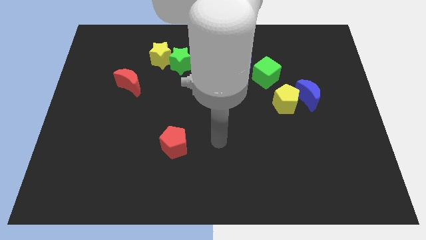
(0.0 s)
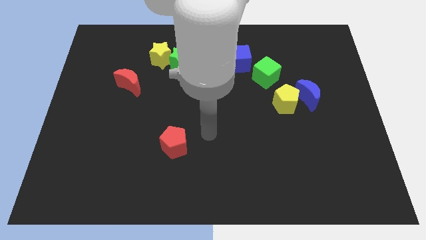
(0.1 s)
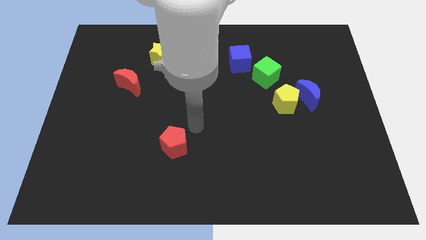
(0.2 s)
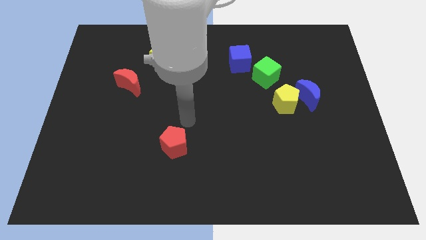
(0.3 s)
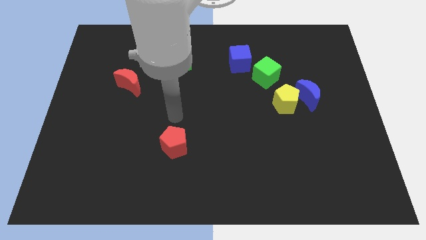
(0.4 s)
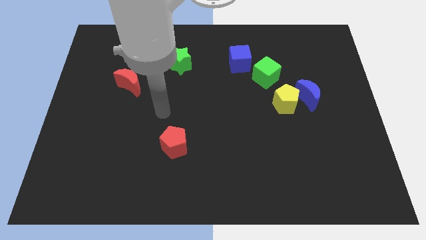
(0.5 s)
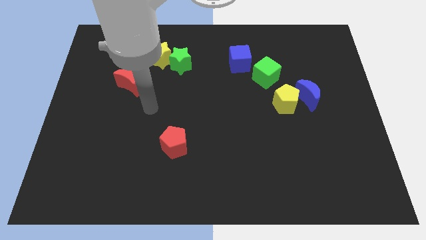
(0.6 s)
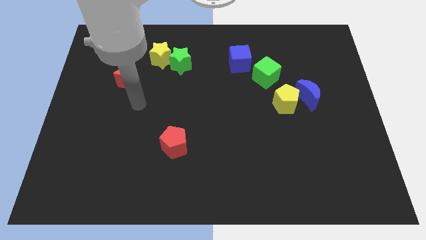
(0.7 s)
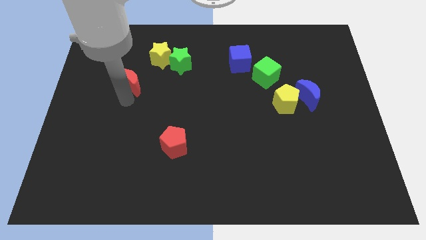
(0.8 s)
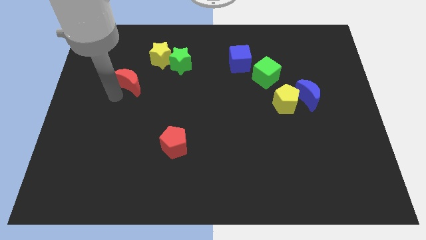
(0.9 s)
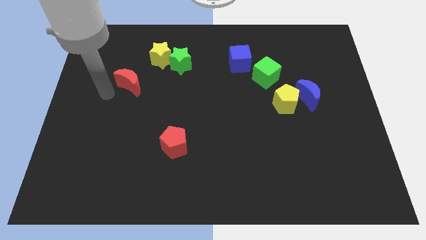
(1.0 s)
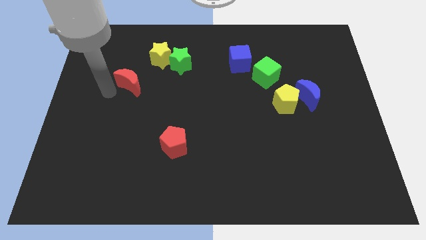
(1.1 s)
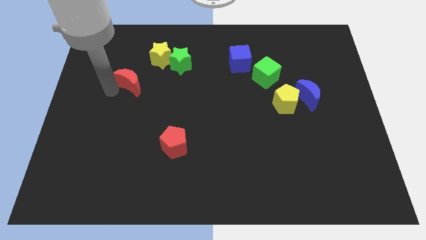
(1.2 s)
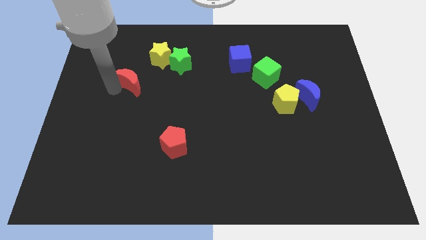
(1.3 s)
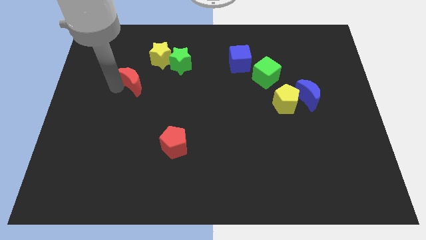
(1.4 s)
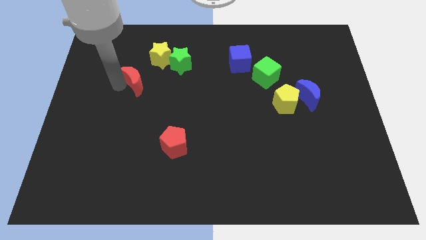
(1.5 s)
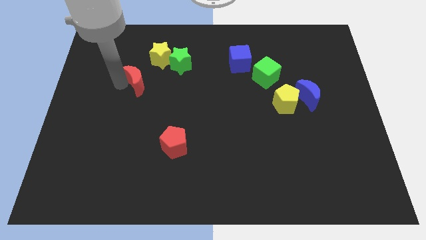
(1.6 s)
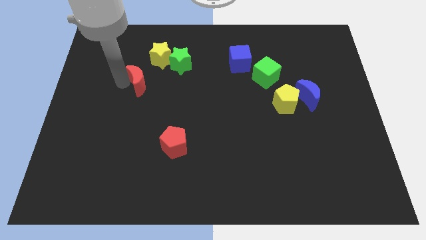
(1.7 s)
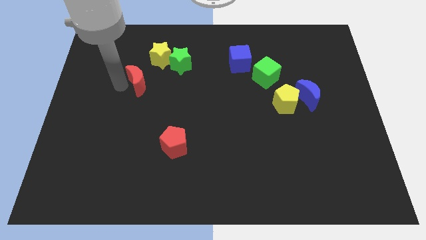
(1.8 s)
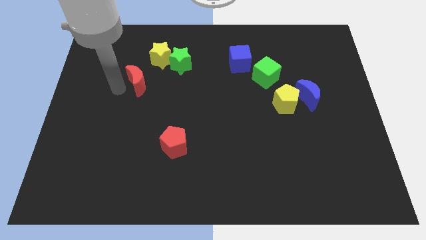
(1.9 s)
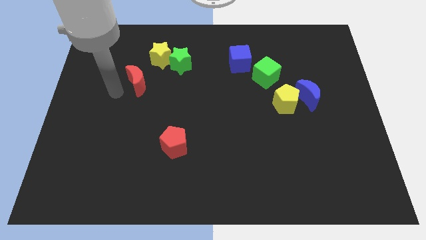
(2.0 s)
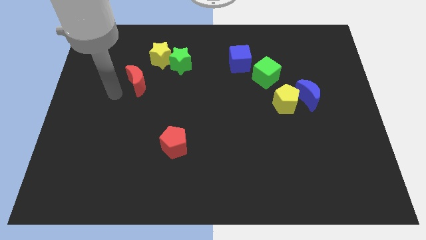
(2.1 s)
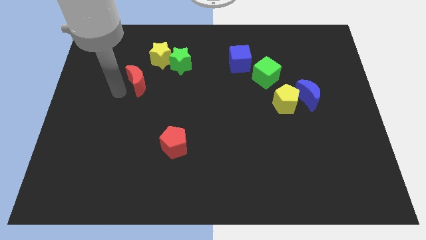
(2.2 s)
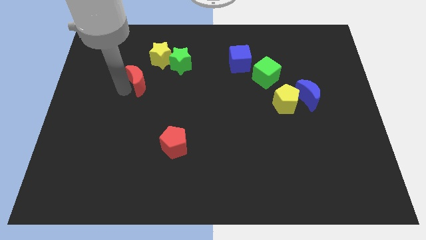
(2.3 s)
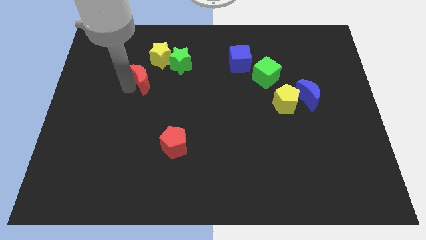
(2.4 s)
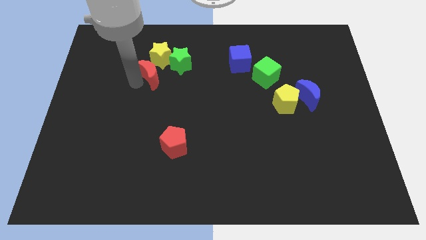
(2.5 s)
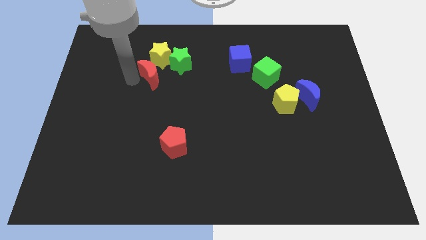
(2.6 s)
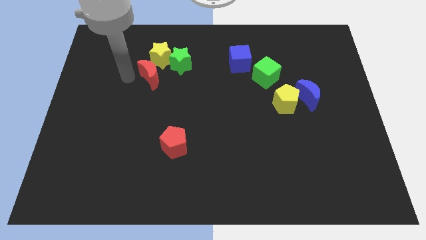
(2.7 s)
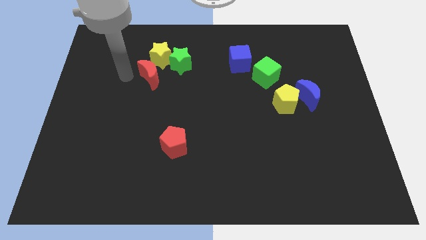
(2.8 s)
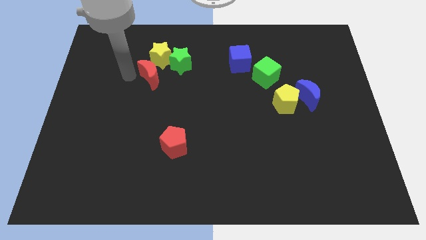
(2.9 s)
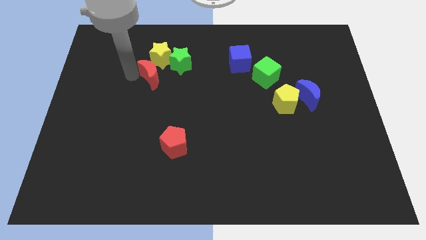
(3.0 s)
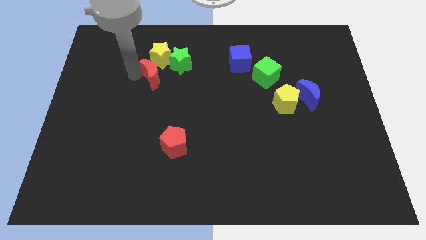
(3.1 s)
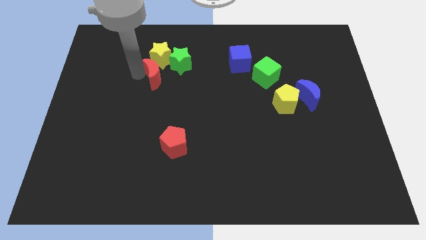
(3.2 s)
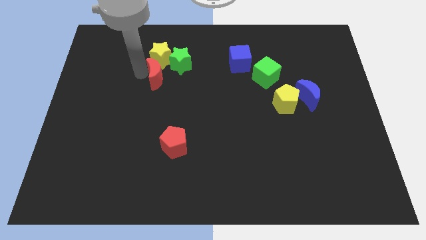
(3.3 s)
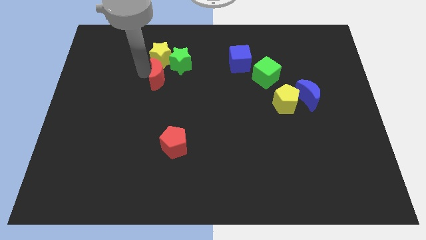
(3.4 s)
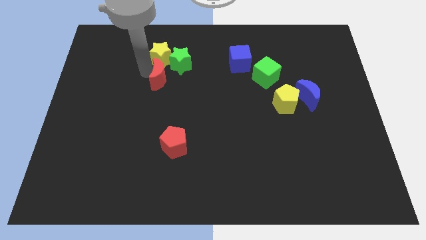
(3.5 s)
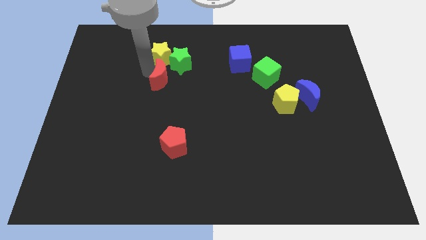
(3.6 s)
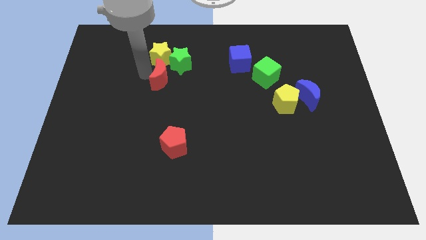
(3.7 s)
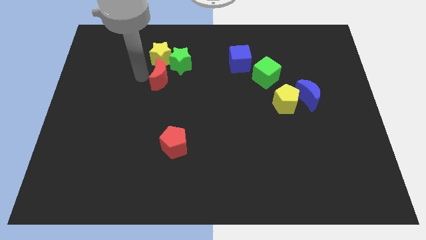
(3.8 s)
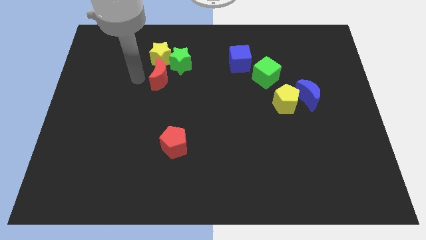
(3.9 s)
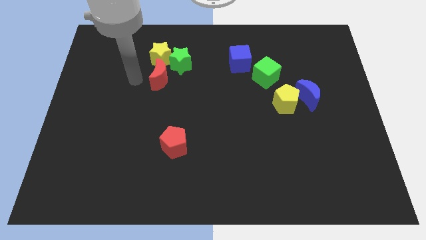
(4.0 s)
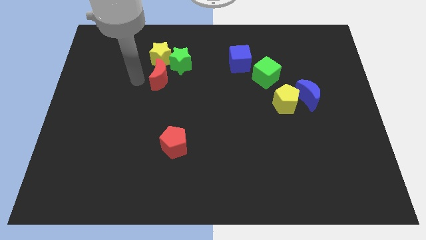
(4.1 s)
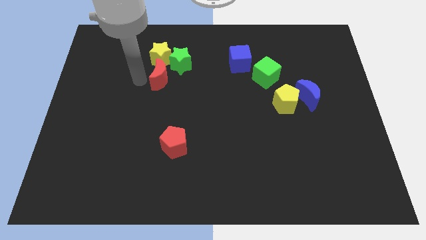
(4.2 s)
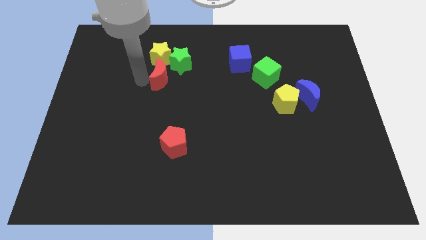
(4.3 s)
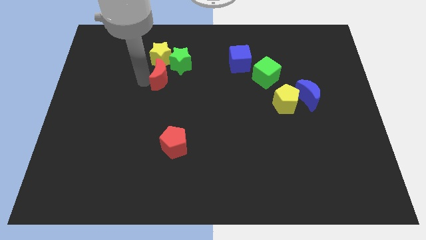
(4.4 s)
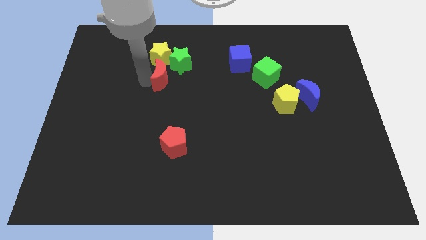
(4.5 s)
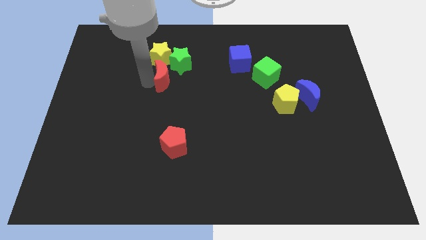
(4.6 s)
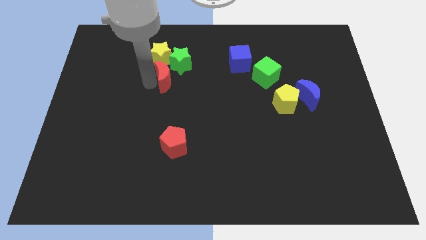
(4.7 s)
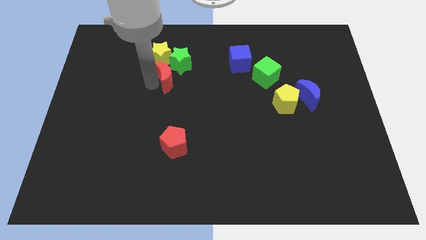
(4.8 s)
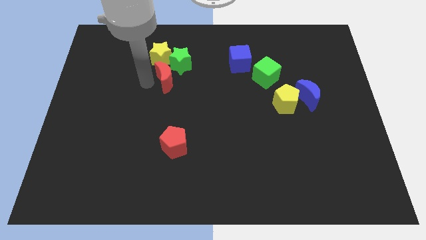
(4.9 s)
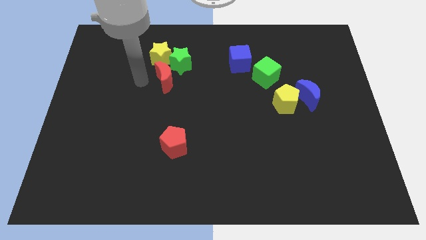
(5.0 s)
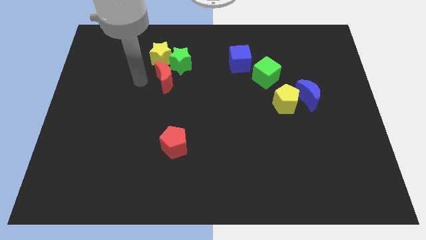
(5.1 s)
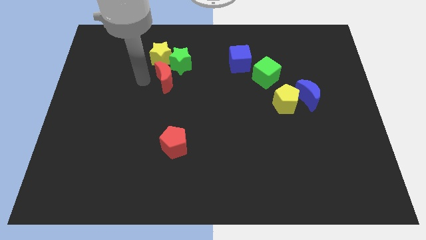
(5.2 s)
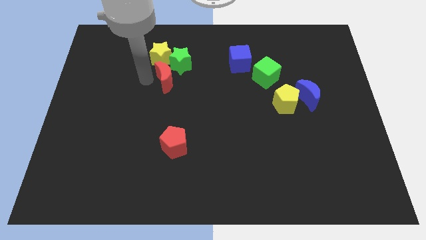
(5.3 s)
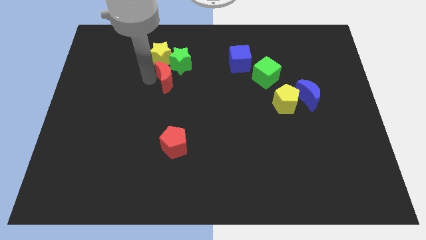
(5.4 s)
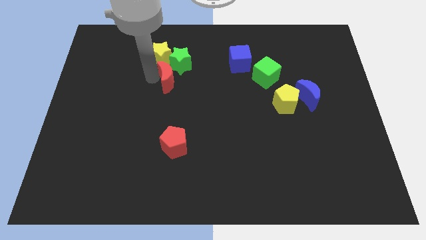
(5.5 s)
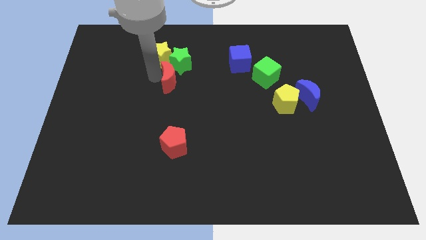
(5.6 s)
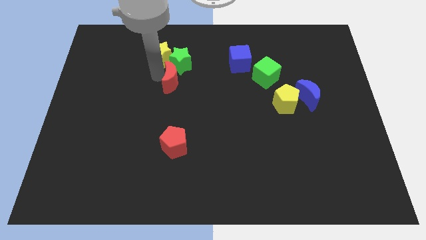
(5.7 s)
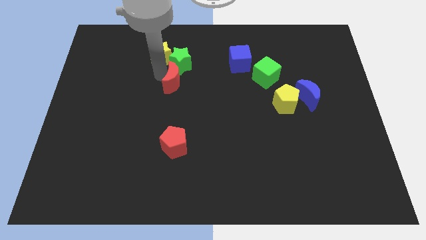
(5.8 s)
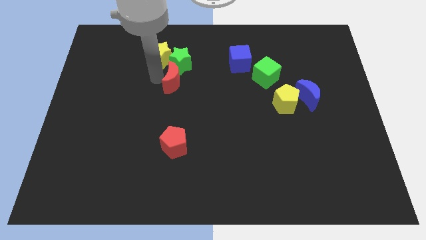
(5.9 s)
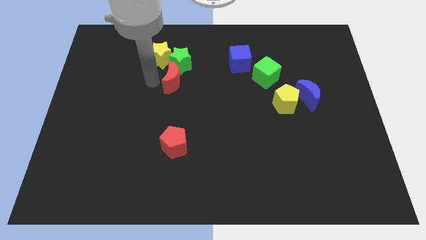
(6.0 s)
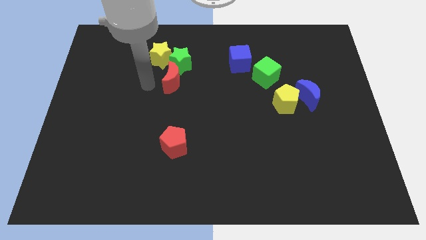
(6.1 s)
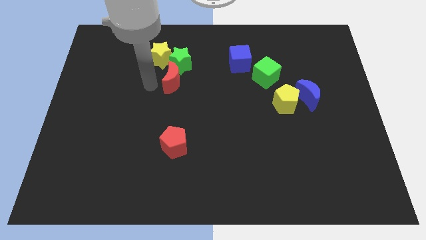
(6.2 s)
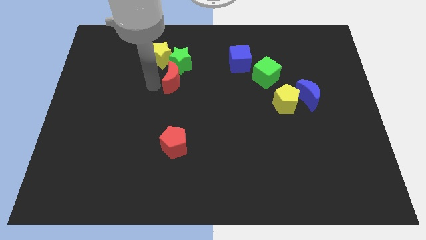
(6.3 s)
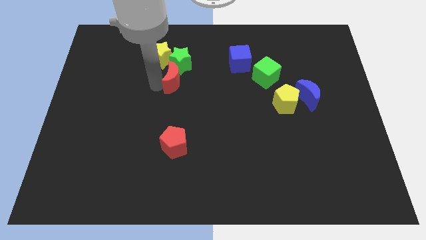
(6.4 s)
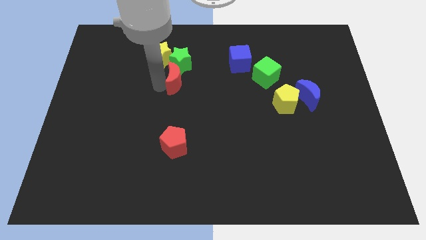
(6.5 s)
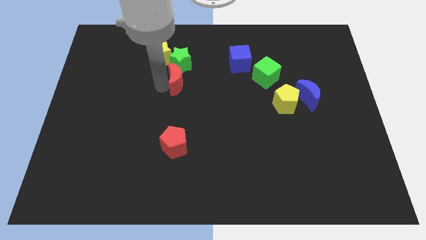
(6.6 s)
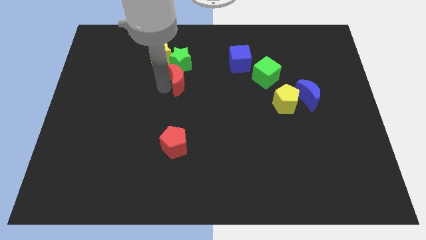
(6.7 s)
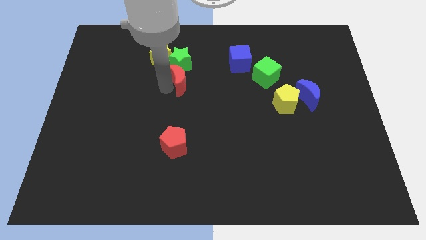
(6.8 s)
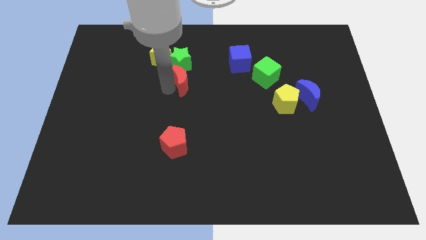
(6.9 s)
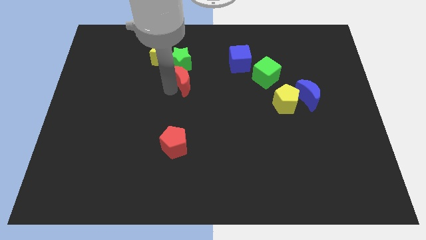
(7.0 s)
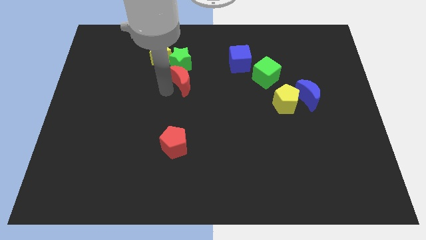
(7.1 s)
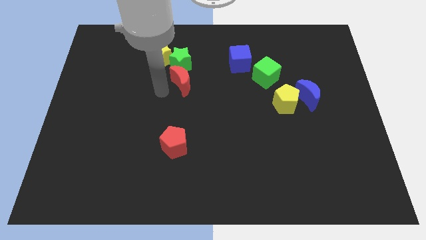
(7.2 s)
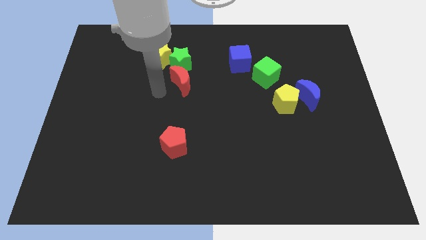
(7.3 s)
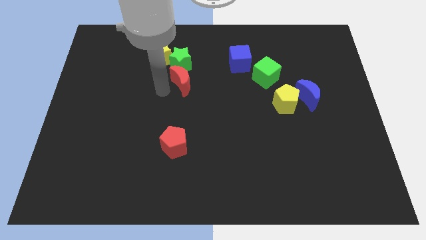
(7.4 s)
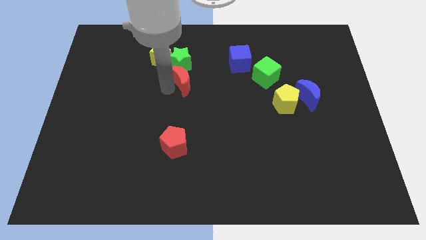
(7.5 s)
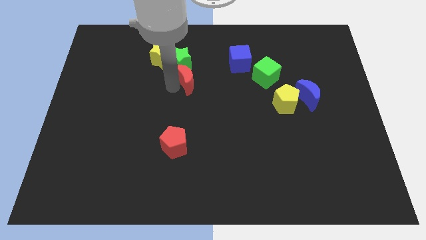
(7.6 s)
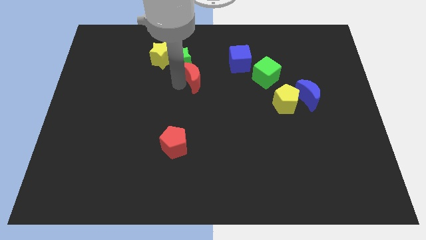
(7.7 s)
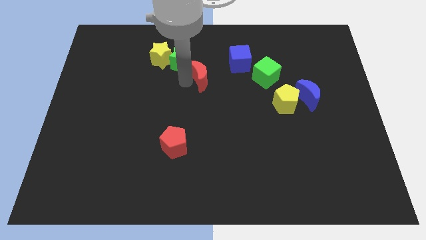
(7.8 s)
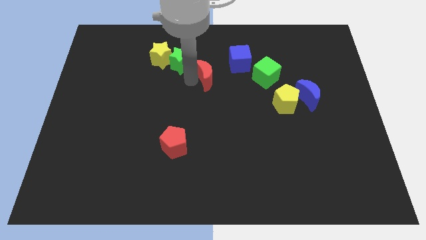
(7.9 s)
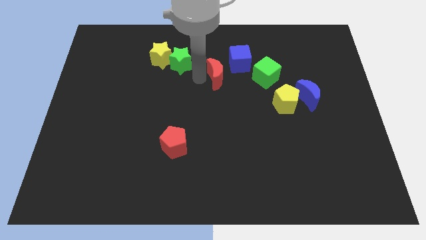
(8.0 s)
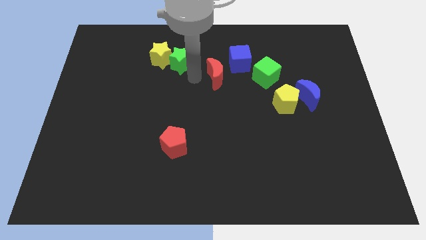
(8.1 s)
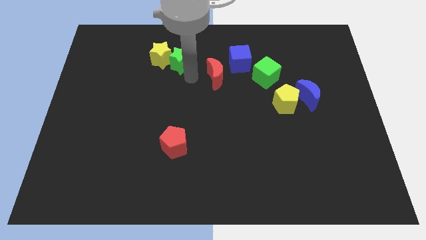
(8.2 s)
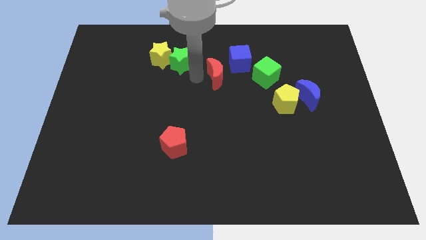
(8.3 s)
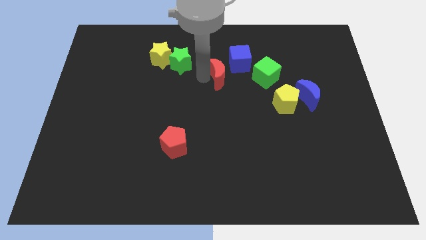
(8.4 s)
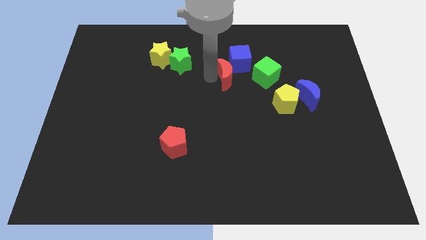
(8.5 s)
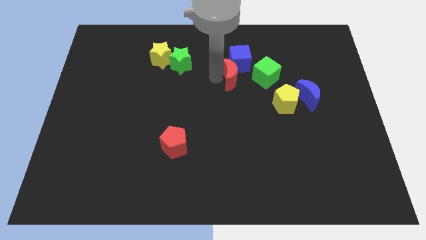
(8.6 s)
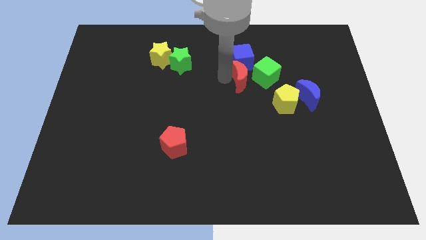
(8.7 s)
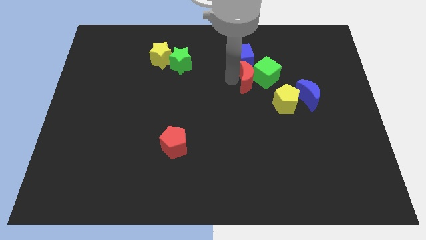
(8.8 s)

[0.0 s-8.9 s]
slide the red moon next to the green cube
